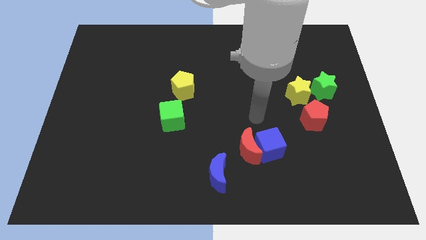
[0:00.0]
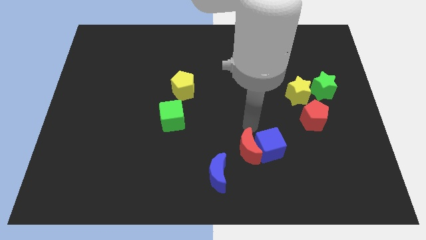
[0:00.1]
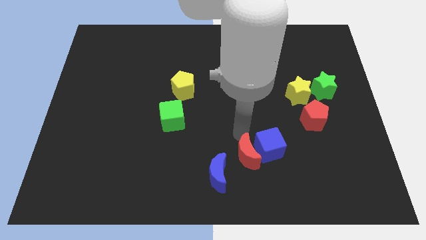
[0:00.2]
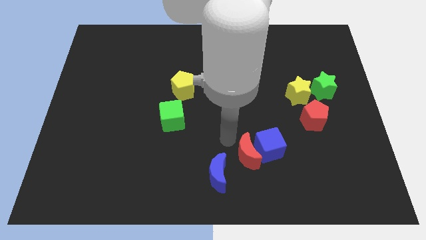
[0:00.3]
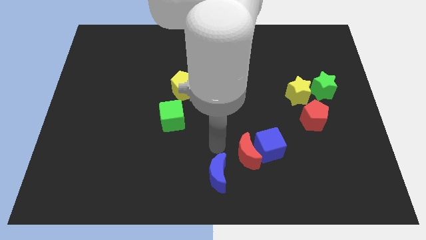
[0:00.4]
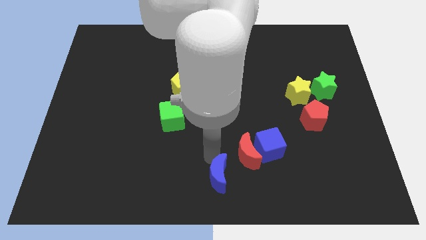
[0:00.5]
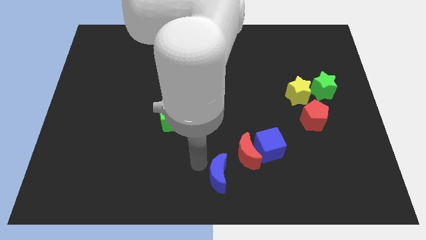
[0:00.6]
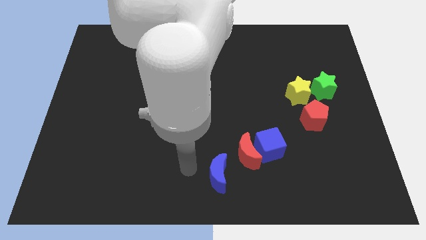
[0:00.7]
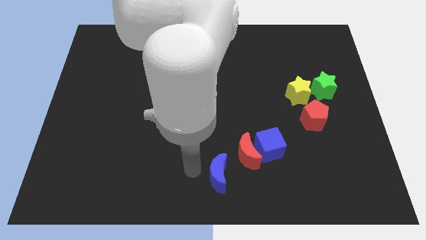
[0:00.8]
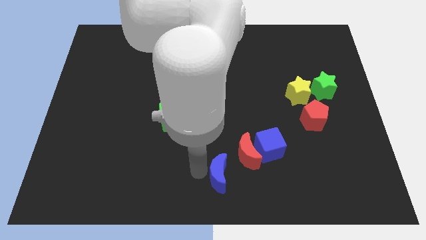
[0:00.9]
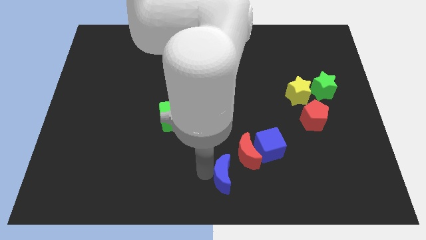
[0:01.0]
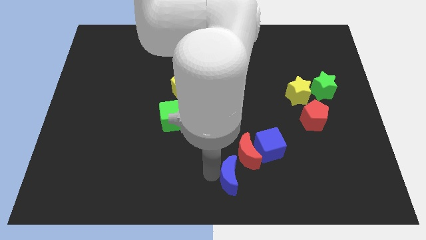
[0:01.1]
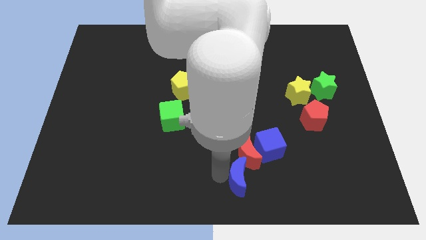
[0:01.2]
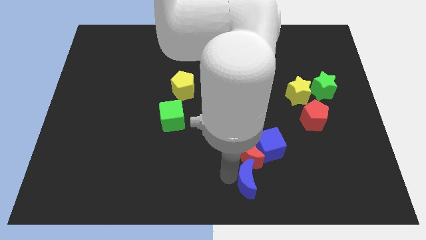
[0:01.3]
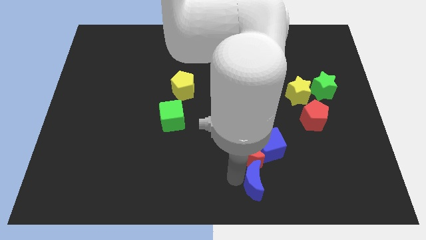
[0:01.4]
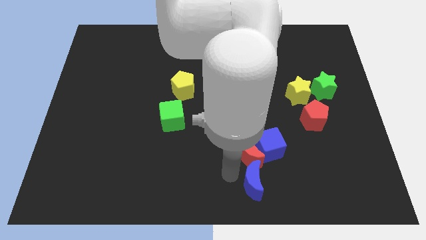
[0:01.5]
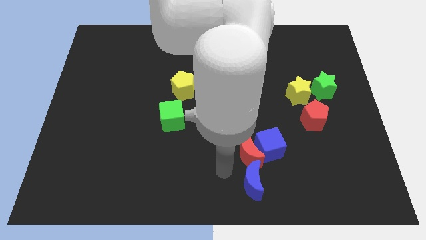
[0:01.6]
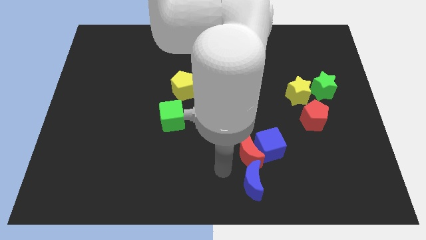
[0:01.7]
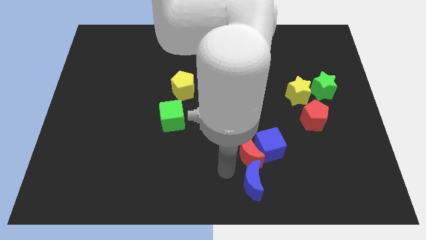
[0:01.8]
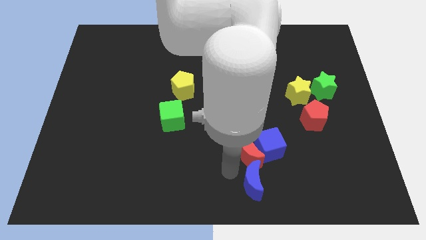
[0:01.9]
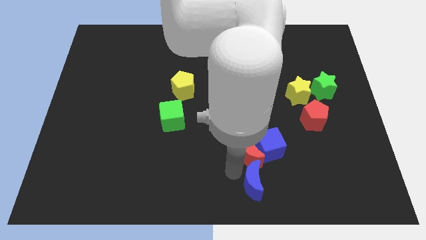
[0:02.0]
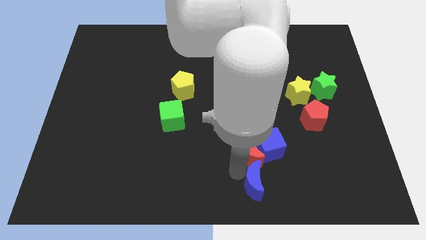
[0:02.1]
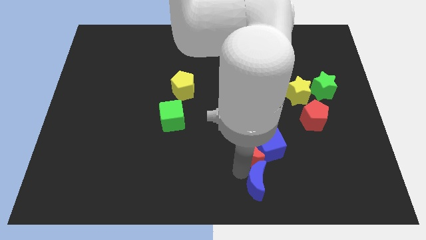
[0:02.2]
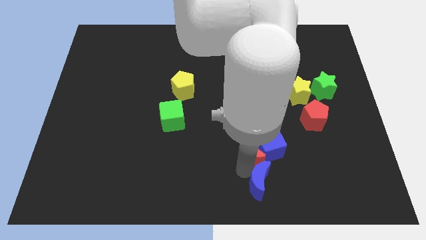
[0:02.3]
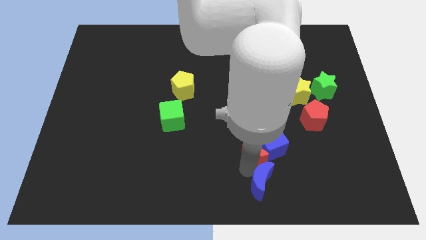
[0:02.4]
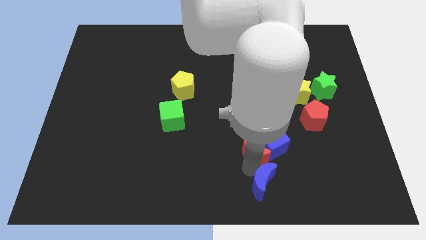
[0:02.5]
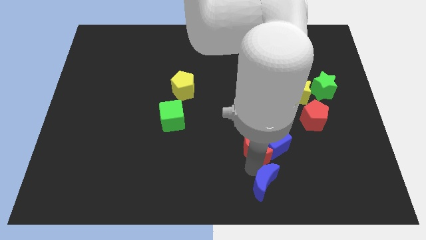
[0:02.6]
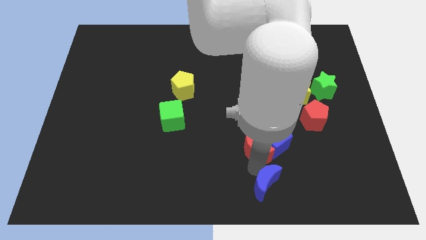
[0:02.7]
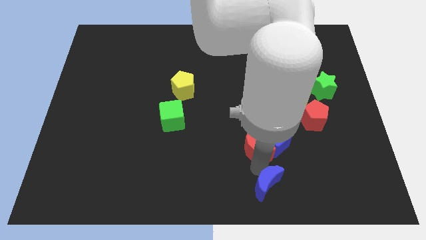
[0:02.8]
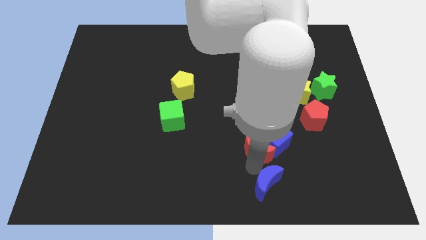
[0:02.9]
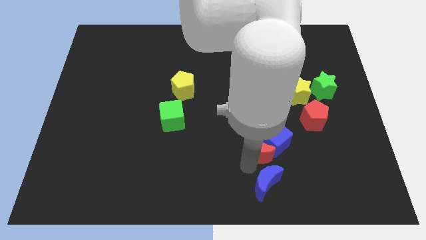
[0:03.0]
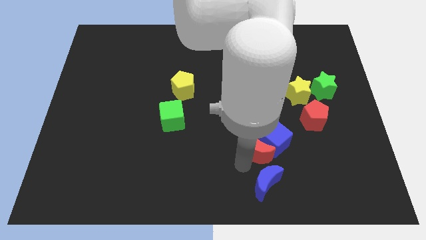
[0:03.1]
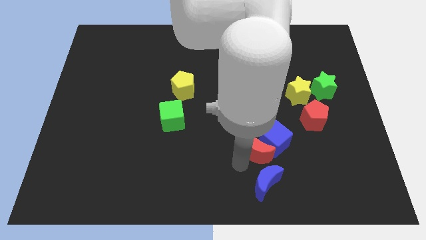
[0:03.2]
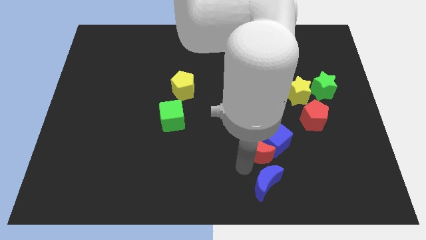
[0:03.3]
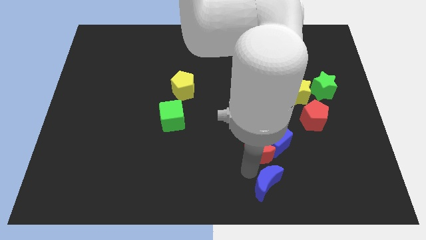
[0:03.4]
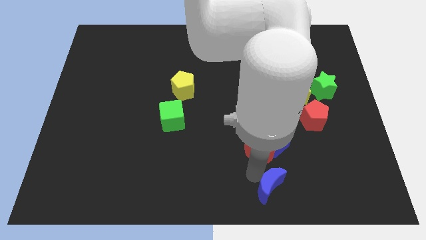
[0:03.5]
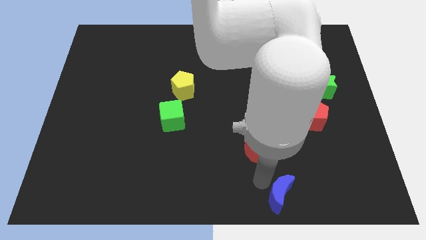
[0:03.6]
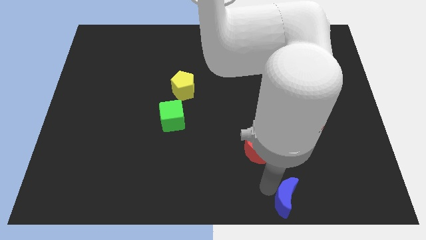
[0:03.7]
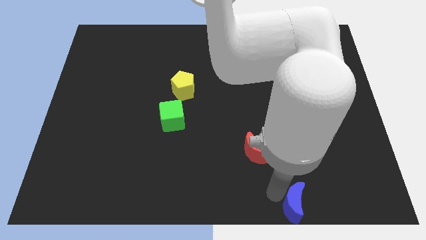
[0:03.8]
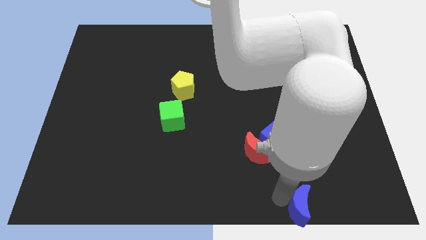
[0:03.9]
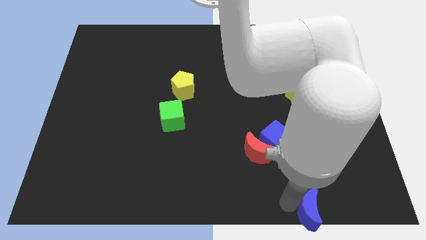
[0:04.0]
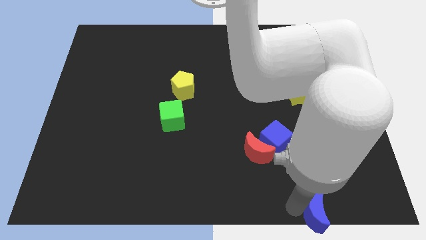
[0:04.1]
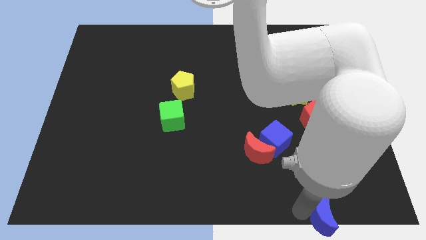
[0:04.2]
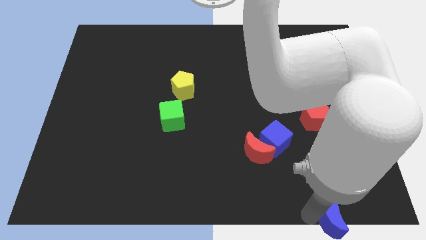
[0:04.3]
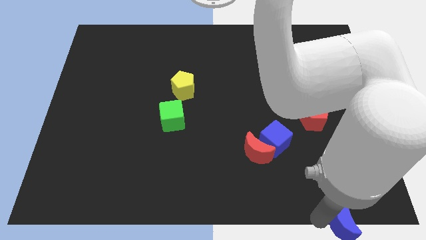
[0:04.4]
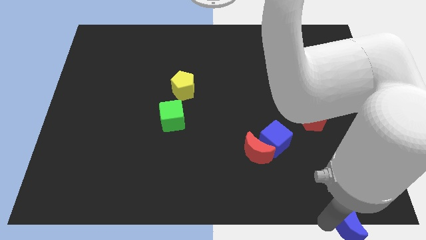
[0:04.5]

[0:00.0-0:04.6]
move the blue moon to the lower right corner

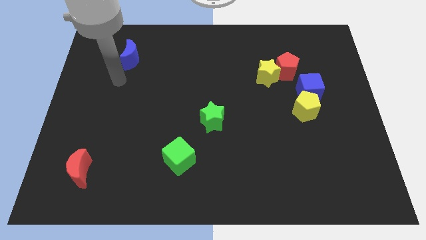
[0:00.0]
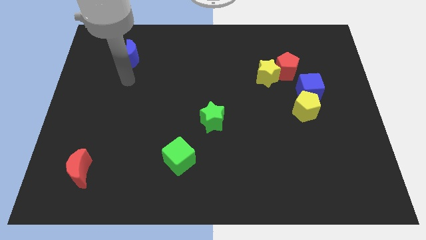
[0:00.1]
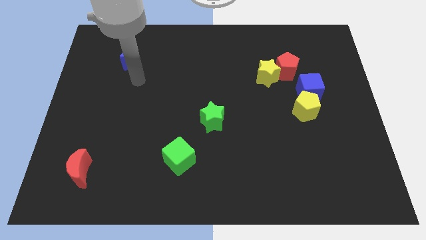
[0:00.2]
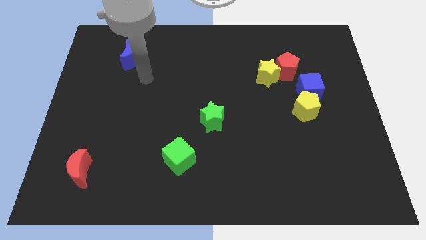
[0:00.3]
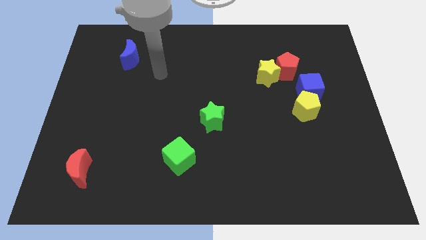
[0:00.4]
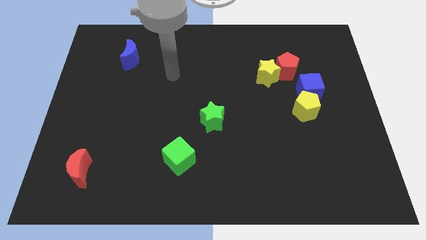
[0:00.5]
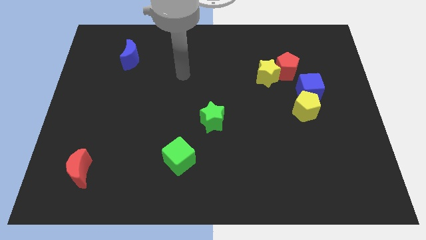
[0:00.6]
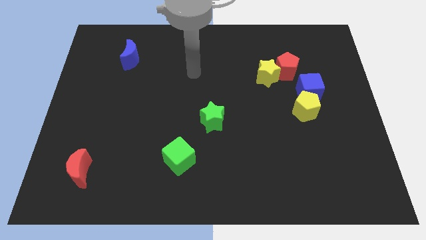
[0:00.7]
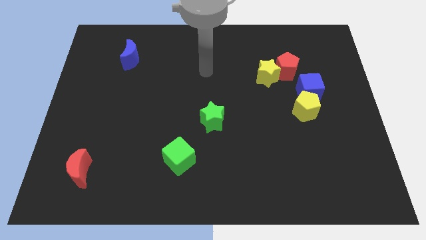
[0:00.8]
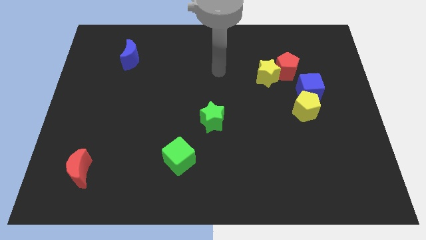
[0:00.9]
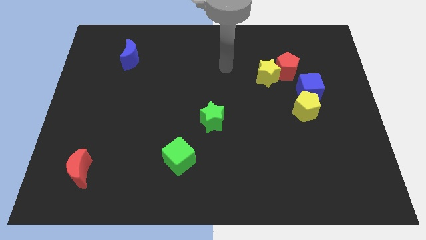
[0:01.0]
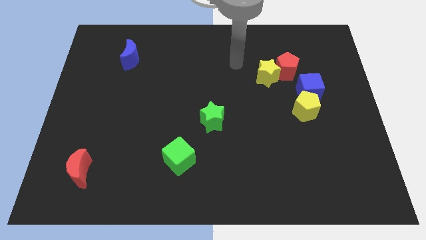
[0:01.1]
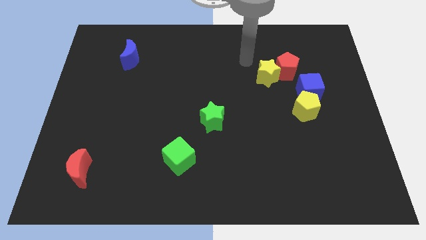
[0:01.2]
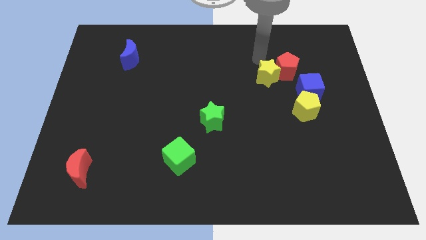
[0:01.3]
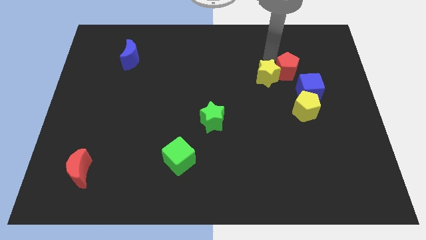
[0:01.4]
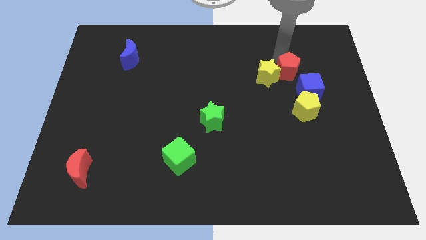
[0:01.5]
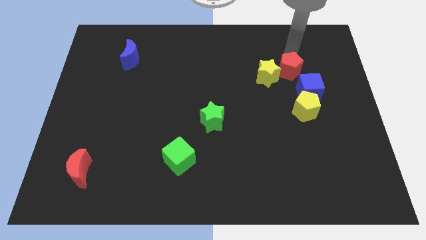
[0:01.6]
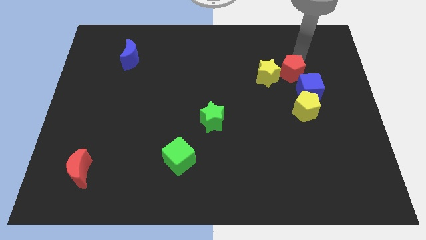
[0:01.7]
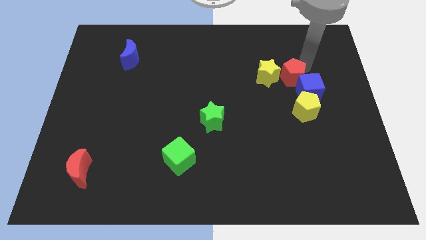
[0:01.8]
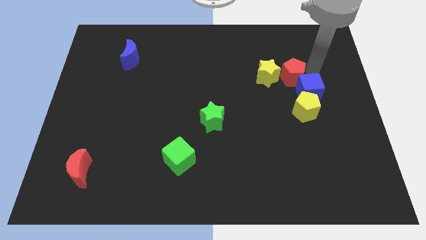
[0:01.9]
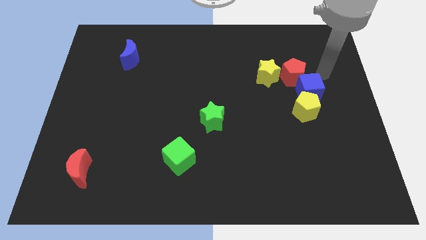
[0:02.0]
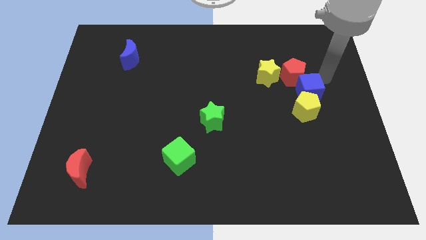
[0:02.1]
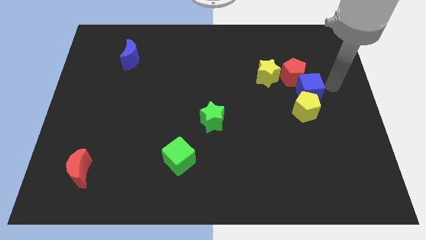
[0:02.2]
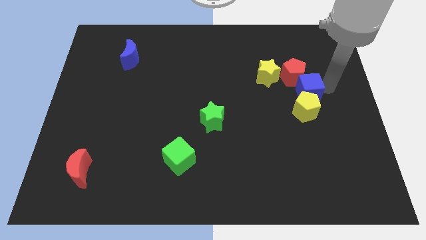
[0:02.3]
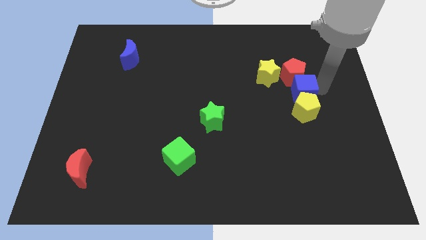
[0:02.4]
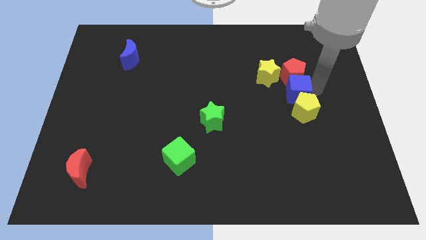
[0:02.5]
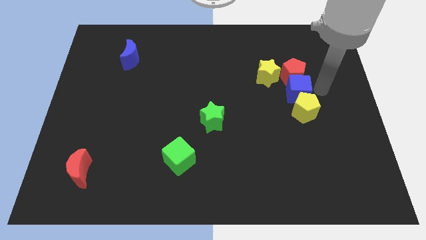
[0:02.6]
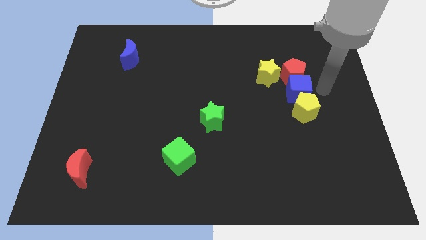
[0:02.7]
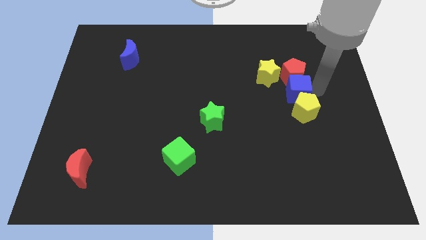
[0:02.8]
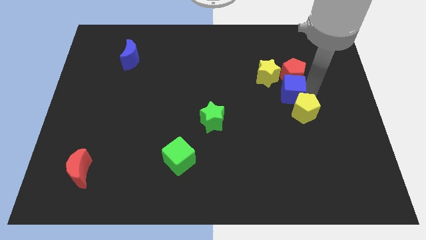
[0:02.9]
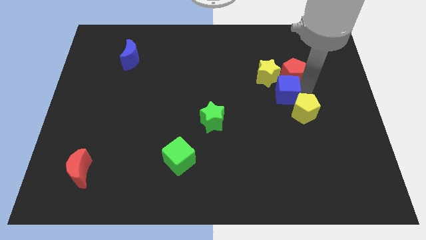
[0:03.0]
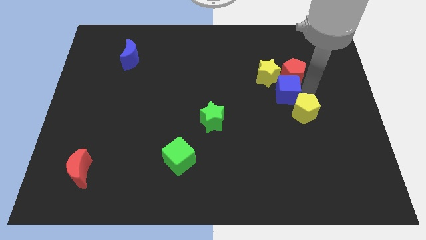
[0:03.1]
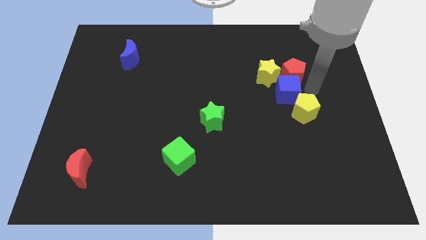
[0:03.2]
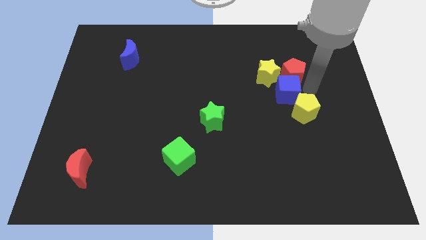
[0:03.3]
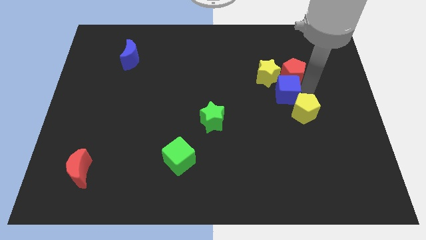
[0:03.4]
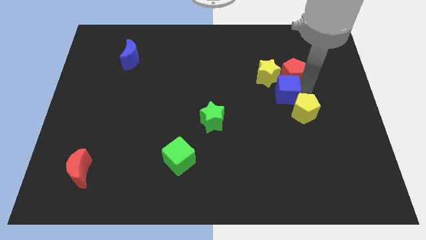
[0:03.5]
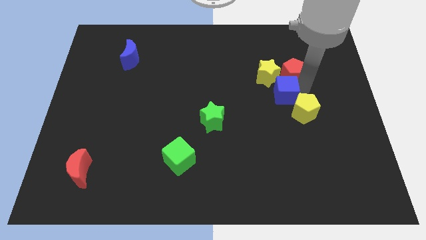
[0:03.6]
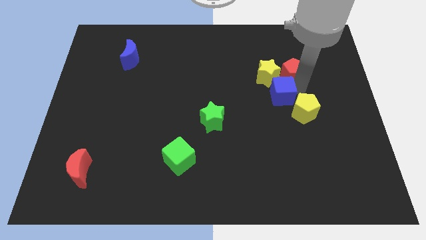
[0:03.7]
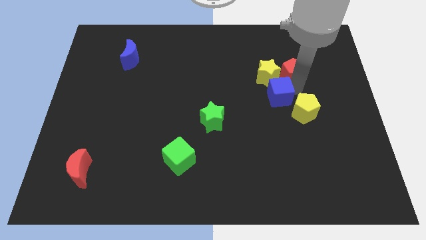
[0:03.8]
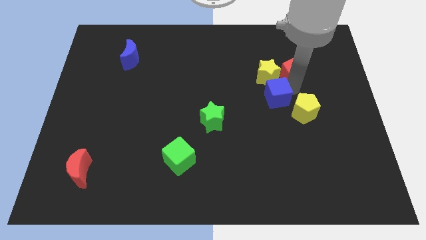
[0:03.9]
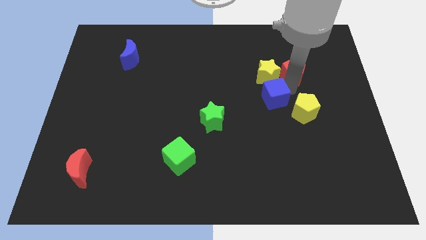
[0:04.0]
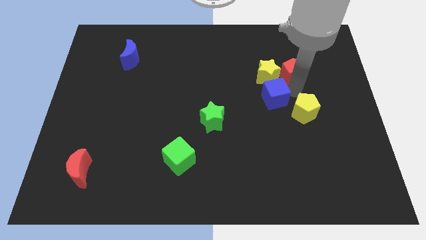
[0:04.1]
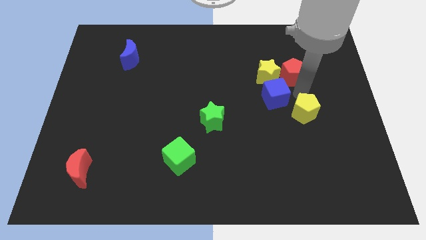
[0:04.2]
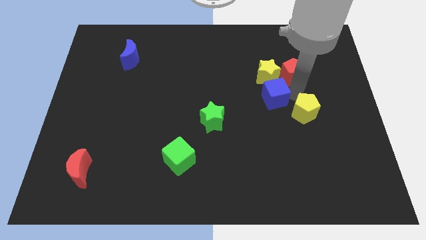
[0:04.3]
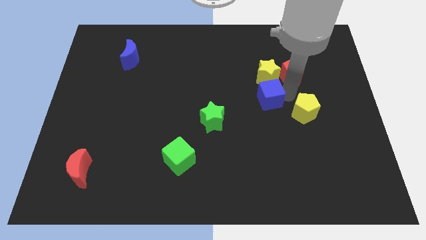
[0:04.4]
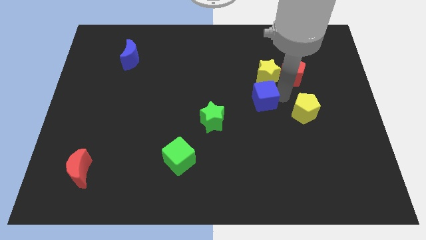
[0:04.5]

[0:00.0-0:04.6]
put the blue cube to the center
